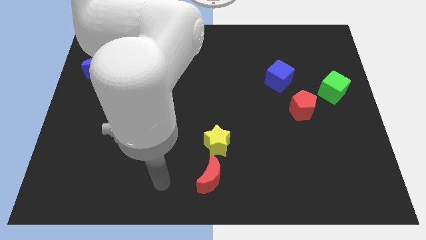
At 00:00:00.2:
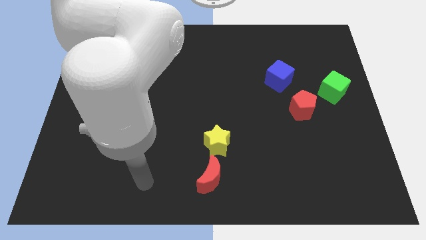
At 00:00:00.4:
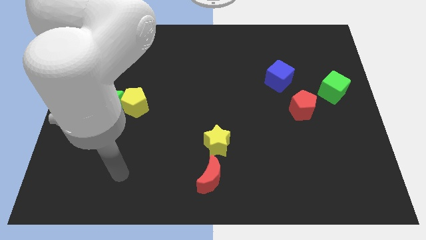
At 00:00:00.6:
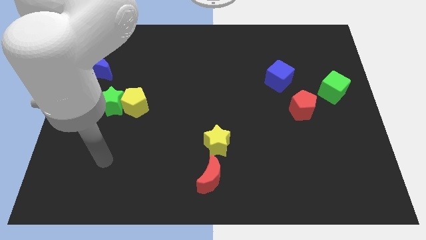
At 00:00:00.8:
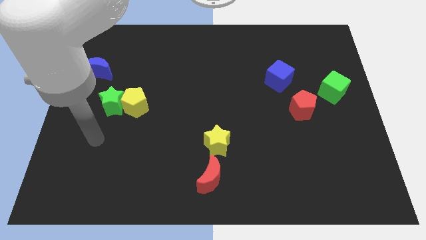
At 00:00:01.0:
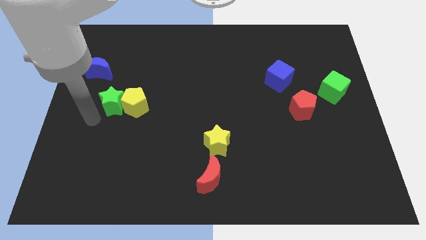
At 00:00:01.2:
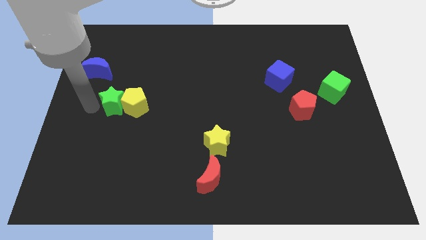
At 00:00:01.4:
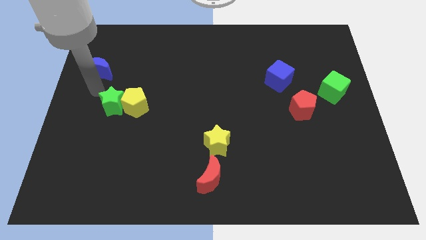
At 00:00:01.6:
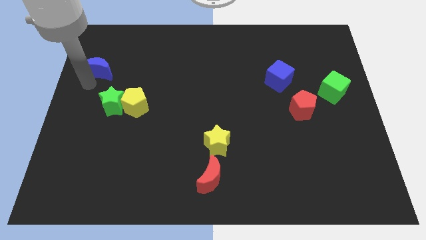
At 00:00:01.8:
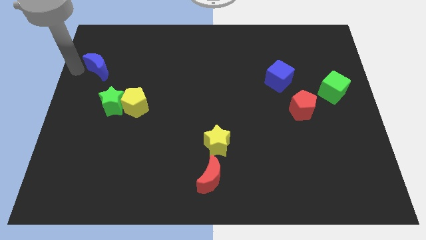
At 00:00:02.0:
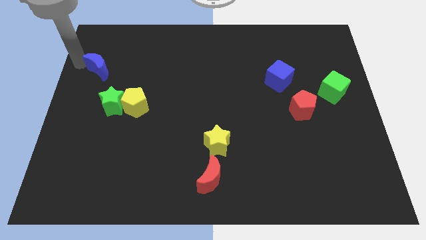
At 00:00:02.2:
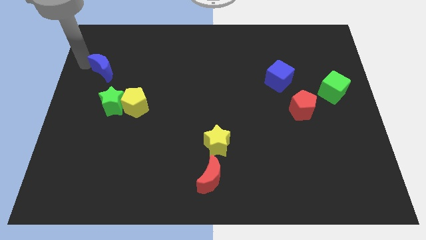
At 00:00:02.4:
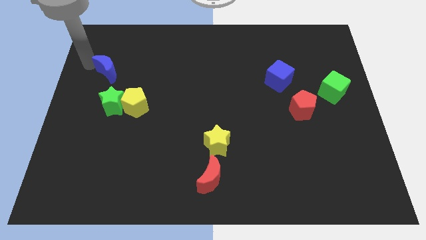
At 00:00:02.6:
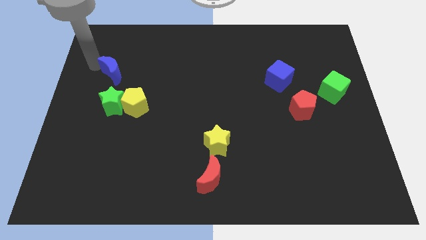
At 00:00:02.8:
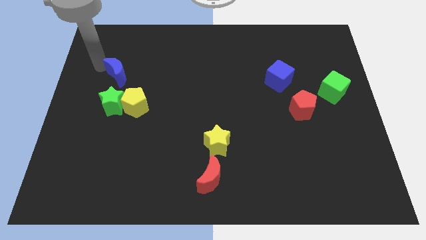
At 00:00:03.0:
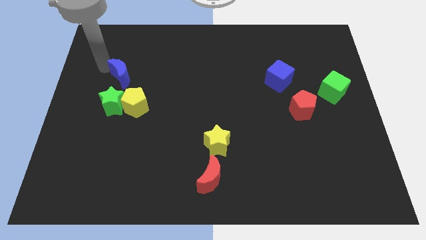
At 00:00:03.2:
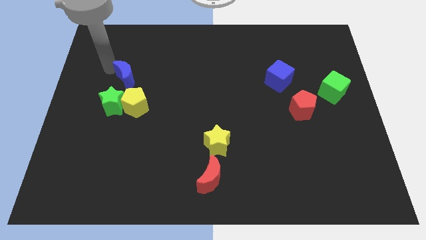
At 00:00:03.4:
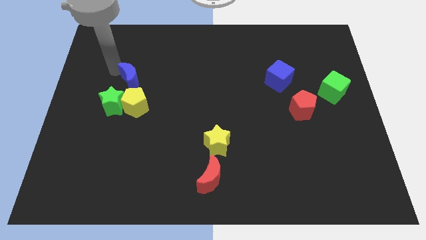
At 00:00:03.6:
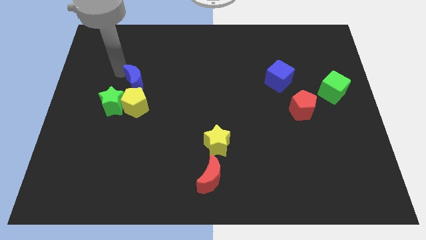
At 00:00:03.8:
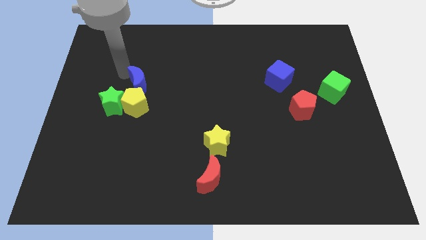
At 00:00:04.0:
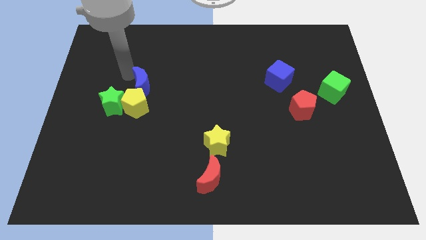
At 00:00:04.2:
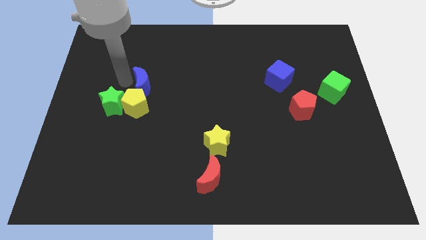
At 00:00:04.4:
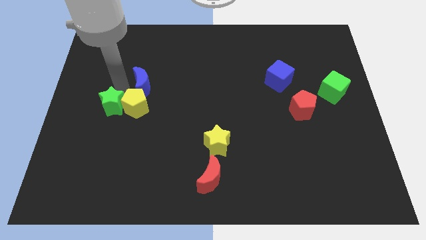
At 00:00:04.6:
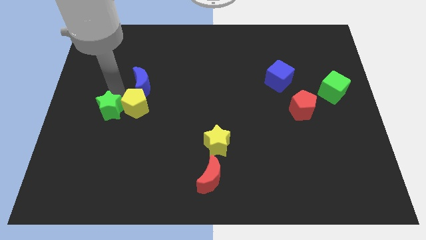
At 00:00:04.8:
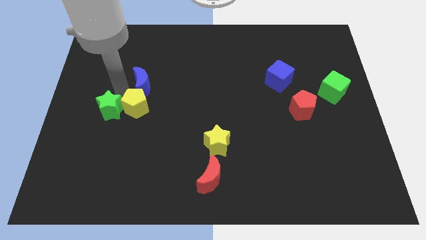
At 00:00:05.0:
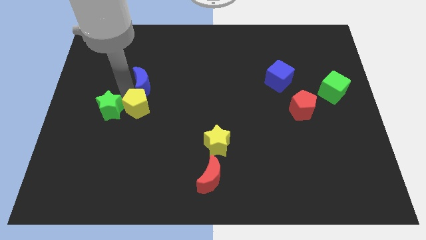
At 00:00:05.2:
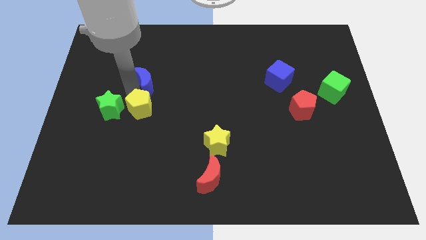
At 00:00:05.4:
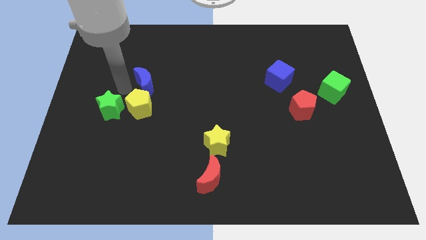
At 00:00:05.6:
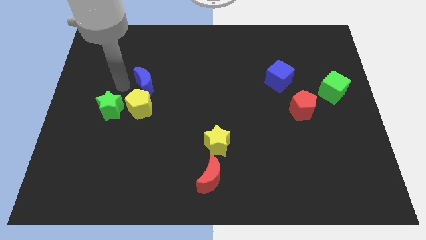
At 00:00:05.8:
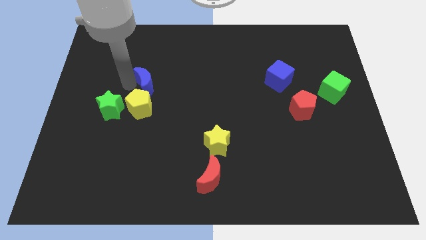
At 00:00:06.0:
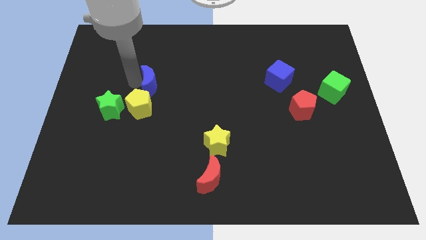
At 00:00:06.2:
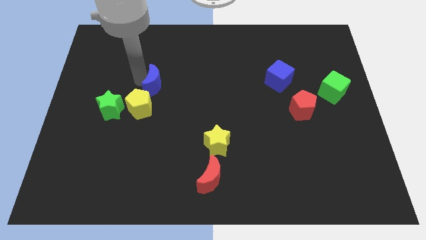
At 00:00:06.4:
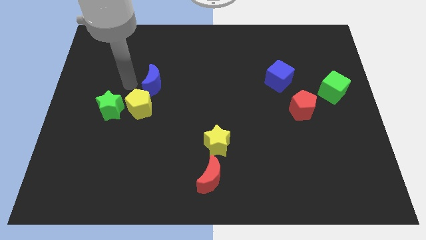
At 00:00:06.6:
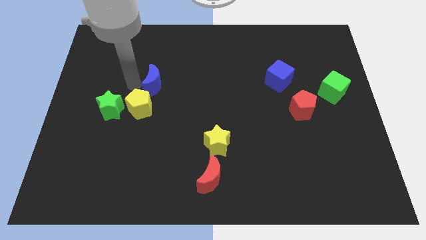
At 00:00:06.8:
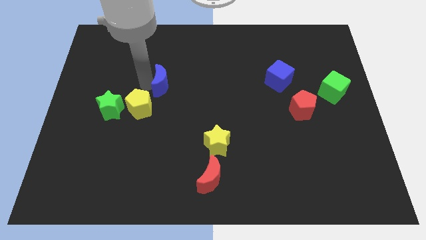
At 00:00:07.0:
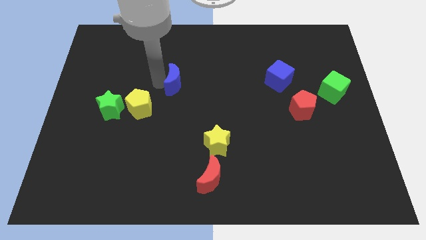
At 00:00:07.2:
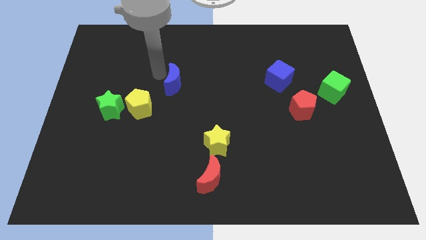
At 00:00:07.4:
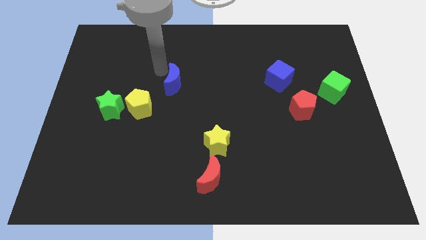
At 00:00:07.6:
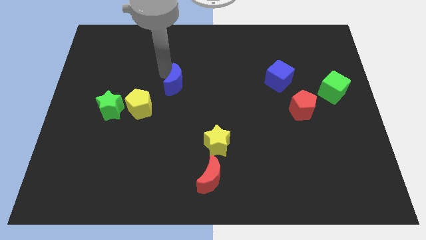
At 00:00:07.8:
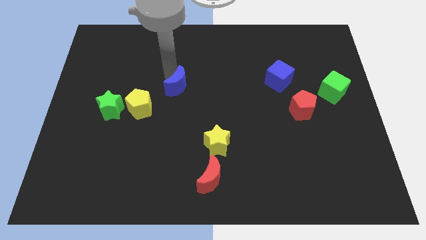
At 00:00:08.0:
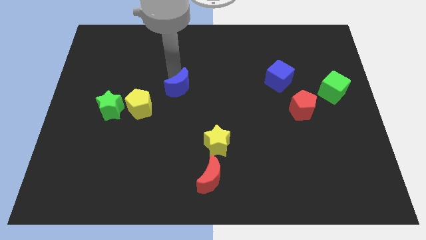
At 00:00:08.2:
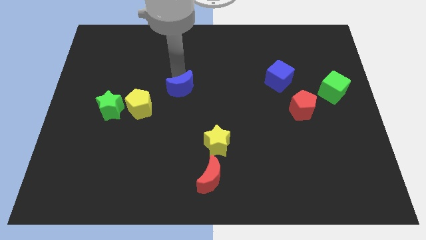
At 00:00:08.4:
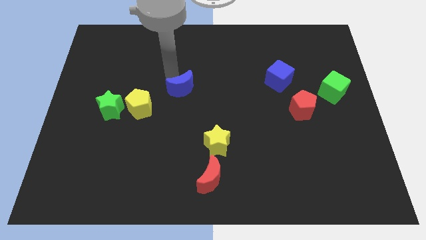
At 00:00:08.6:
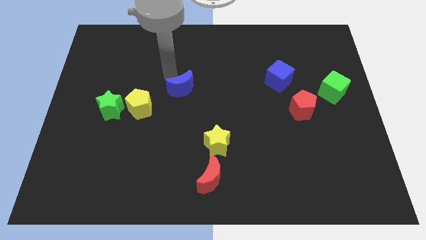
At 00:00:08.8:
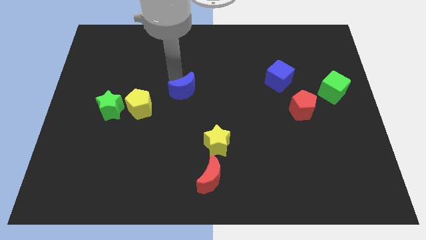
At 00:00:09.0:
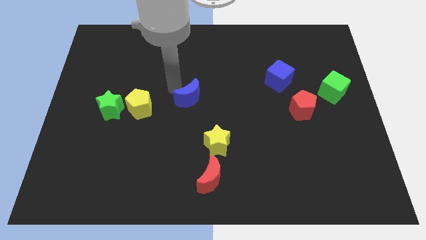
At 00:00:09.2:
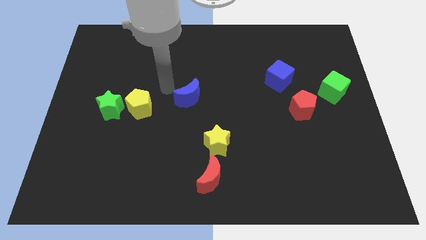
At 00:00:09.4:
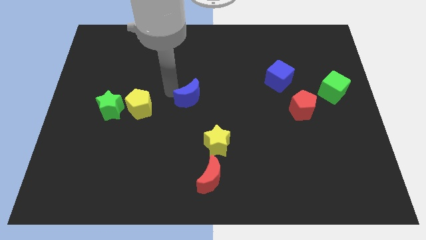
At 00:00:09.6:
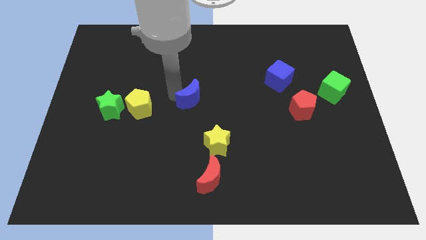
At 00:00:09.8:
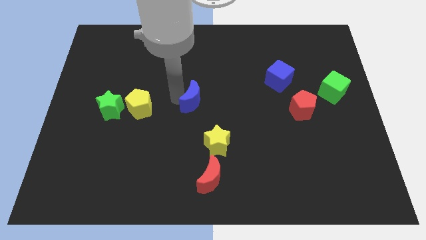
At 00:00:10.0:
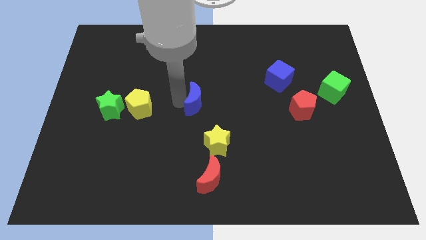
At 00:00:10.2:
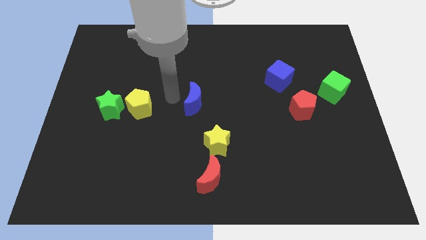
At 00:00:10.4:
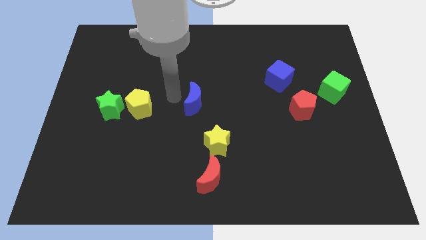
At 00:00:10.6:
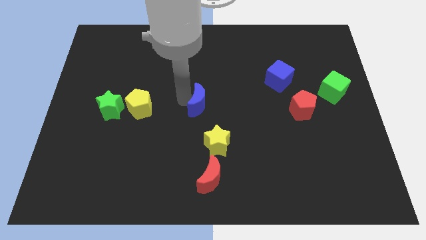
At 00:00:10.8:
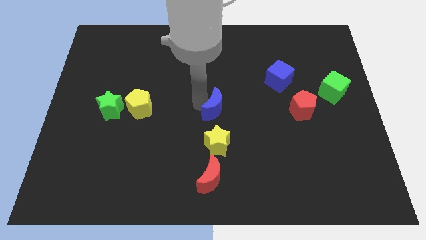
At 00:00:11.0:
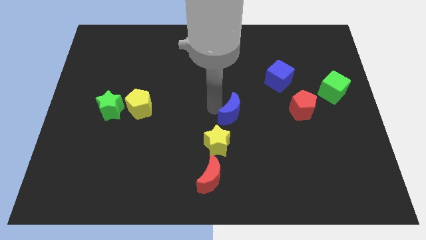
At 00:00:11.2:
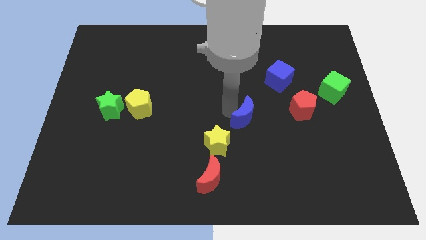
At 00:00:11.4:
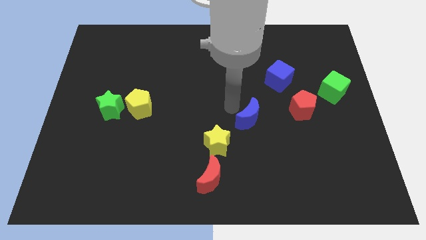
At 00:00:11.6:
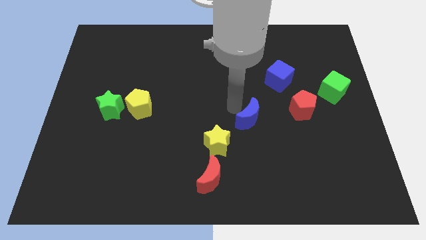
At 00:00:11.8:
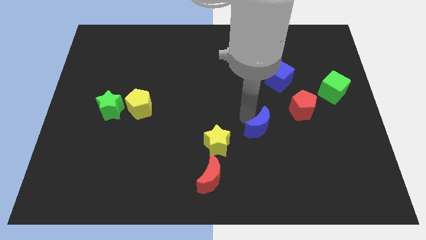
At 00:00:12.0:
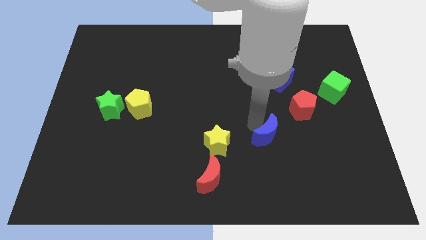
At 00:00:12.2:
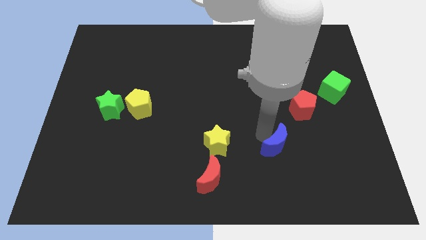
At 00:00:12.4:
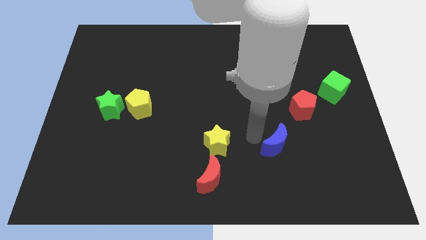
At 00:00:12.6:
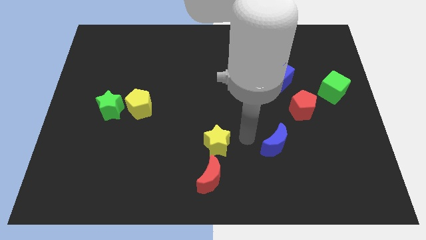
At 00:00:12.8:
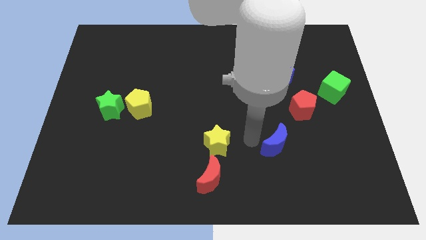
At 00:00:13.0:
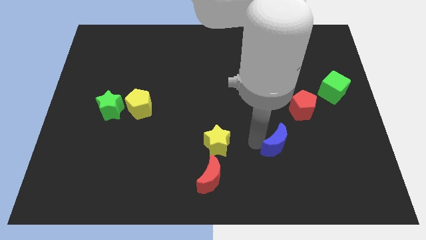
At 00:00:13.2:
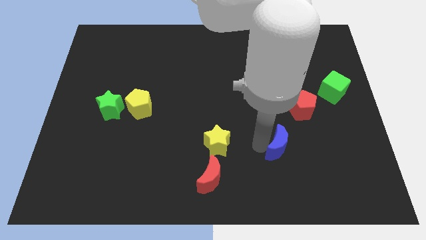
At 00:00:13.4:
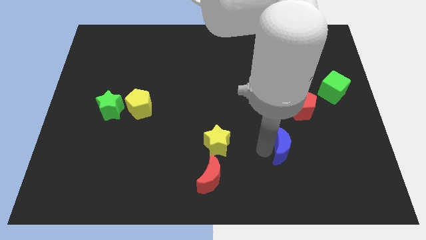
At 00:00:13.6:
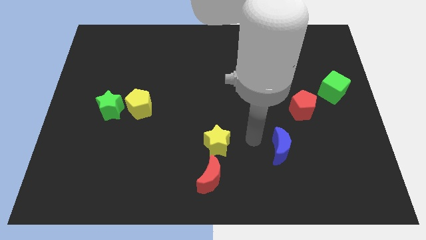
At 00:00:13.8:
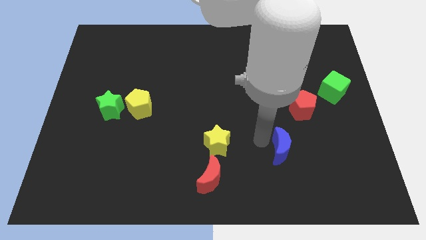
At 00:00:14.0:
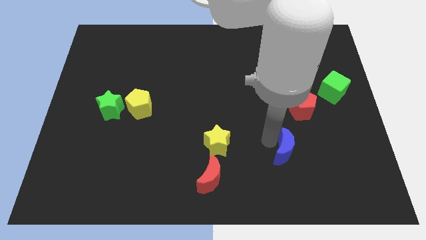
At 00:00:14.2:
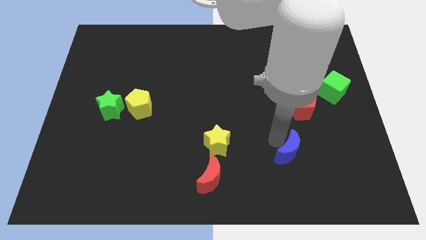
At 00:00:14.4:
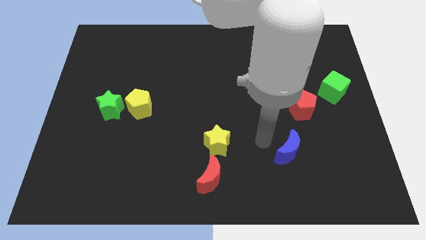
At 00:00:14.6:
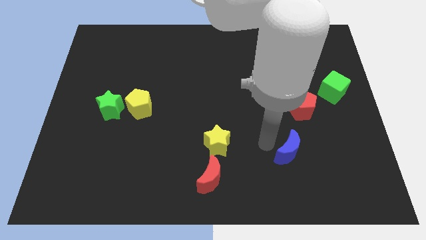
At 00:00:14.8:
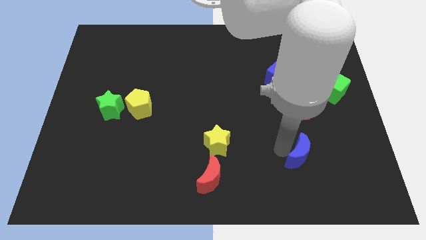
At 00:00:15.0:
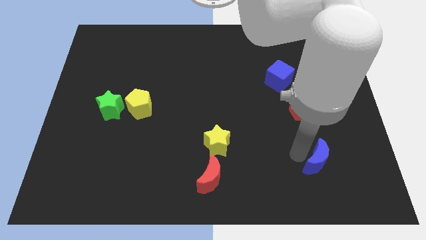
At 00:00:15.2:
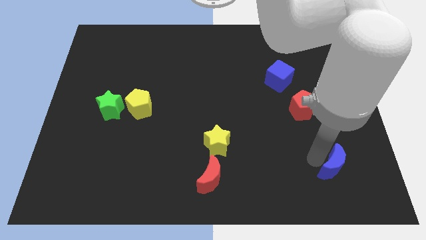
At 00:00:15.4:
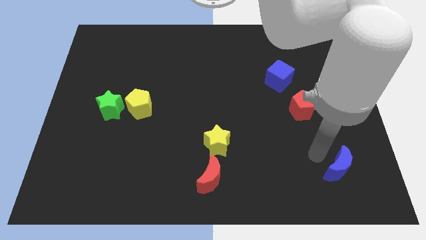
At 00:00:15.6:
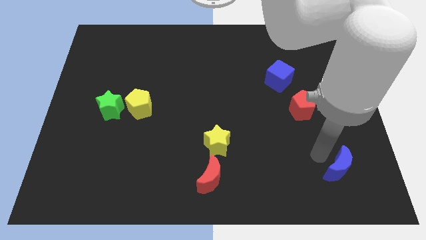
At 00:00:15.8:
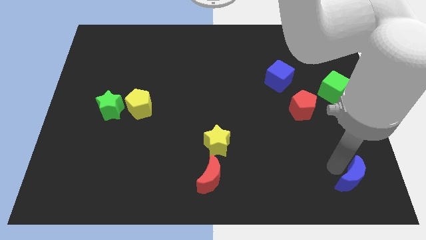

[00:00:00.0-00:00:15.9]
slide the blue moon to the lower right corner
